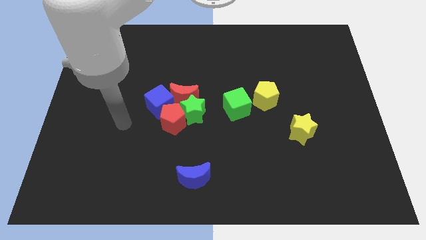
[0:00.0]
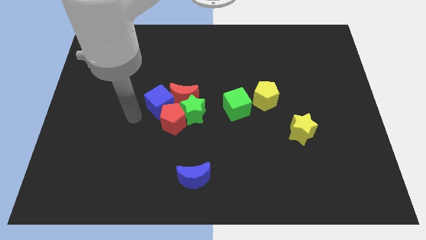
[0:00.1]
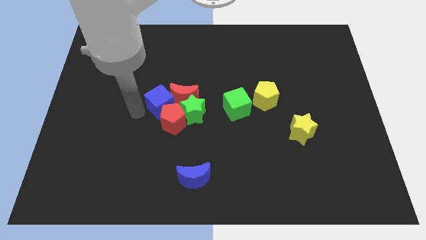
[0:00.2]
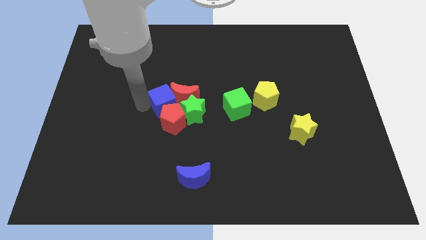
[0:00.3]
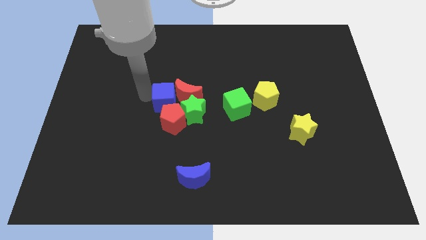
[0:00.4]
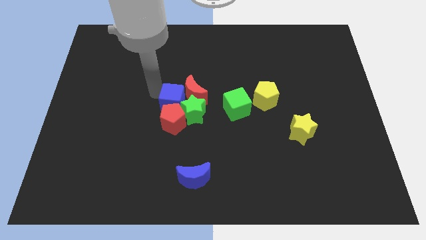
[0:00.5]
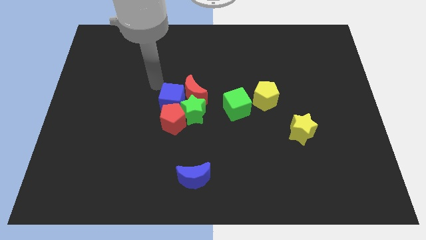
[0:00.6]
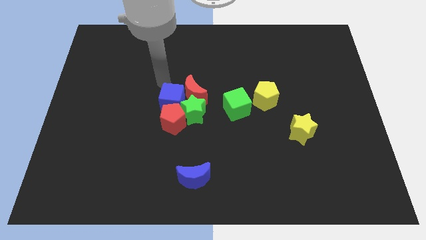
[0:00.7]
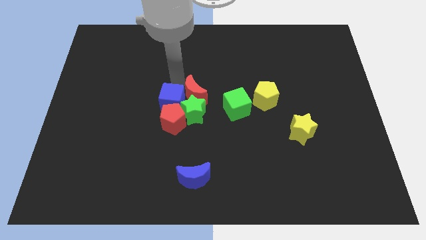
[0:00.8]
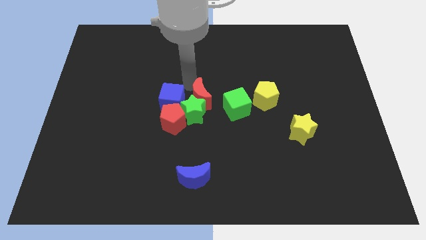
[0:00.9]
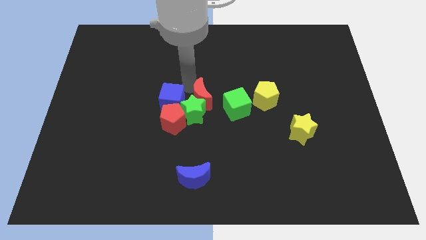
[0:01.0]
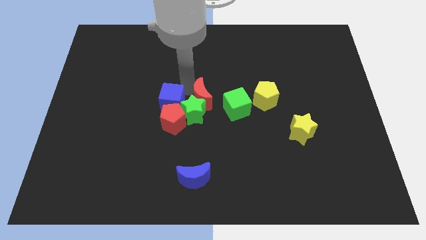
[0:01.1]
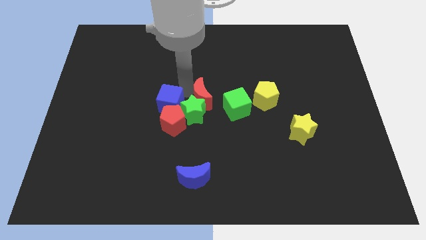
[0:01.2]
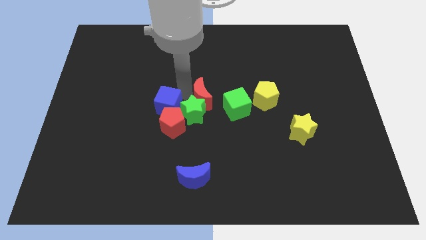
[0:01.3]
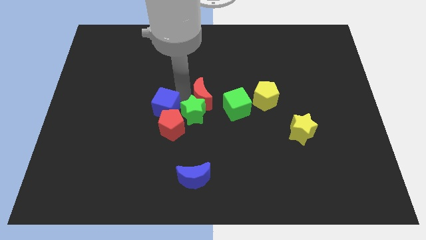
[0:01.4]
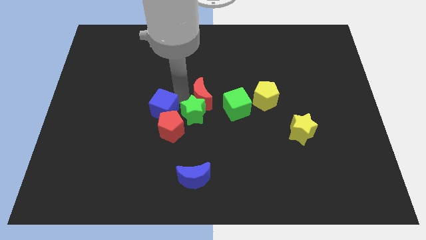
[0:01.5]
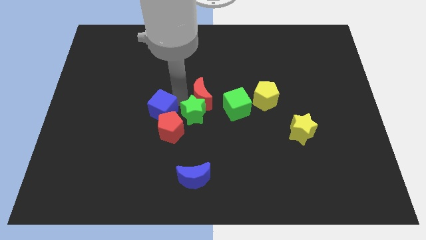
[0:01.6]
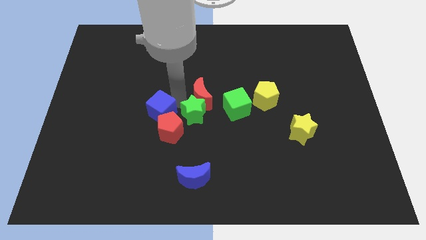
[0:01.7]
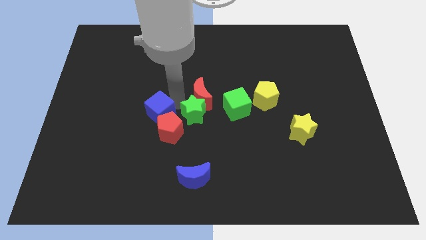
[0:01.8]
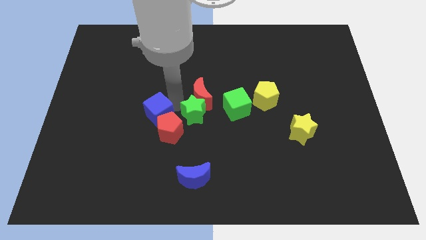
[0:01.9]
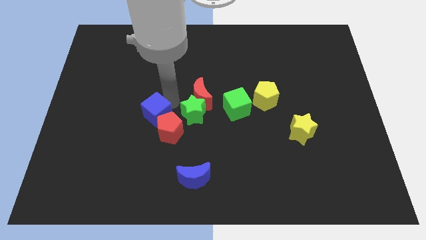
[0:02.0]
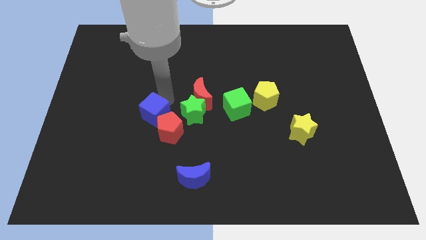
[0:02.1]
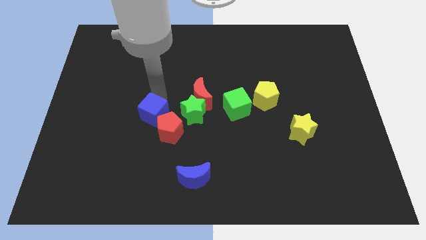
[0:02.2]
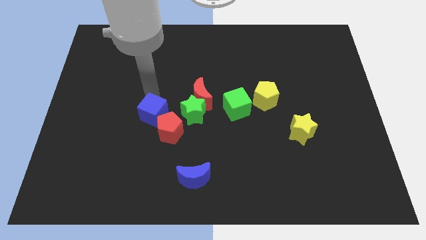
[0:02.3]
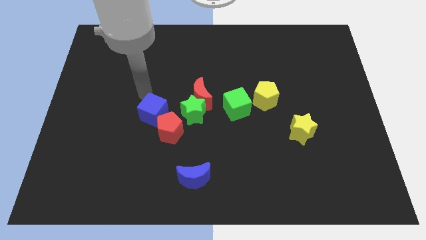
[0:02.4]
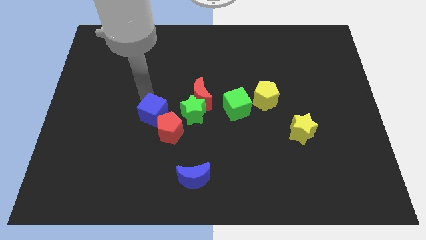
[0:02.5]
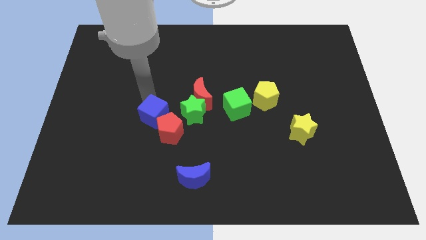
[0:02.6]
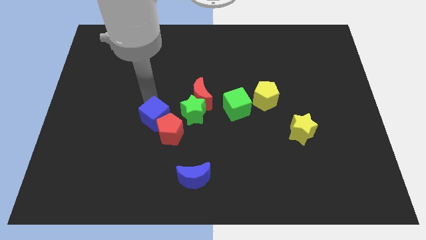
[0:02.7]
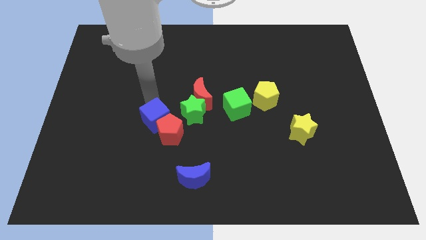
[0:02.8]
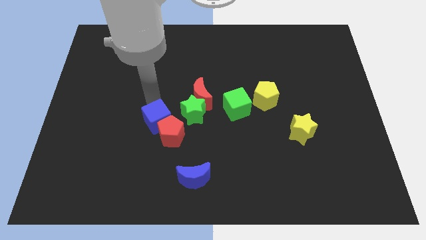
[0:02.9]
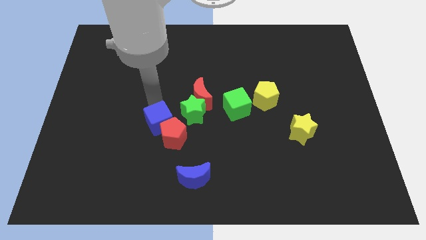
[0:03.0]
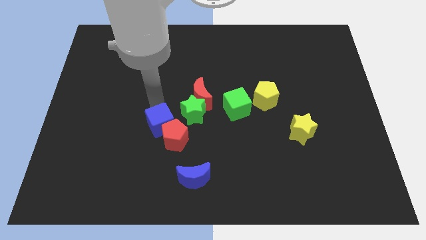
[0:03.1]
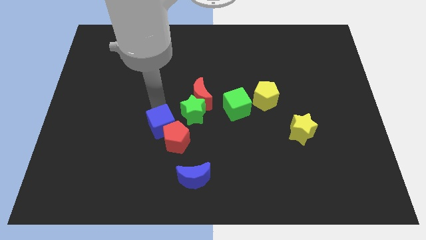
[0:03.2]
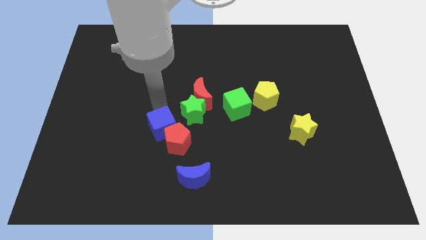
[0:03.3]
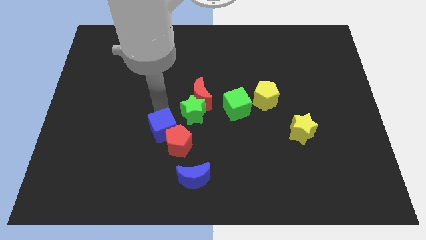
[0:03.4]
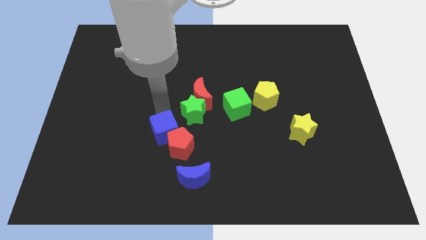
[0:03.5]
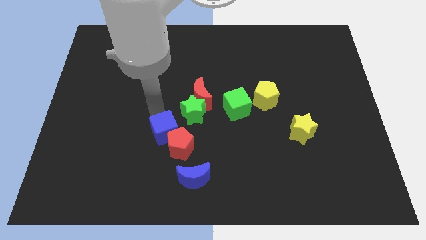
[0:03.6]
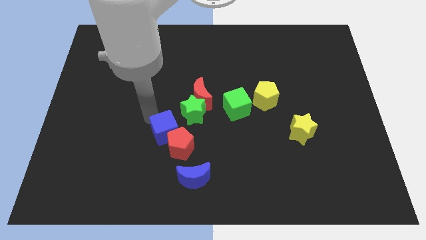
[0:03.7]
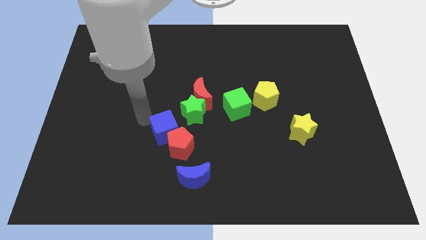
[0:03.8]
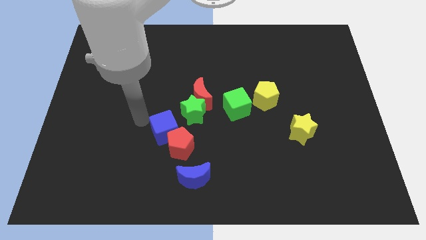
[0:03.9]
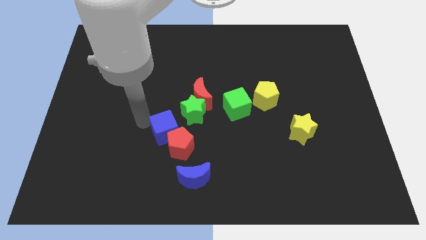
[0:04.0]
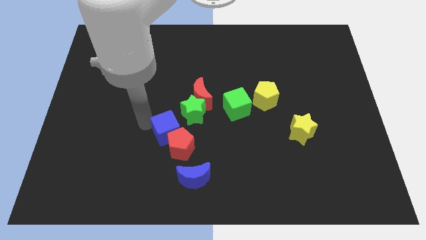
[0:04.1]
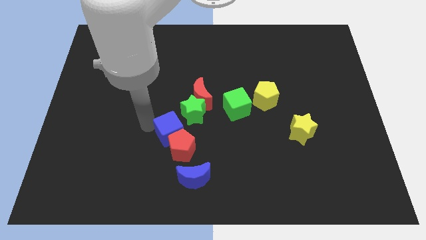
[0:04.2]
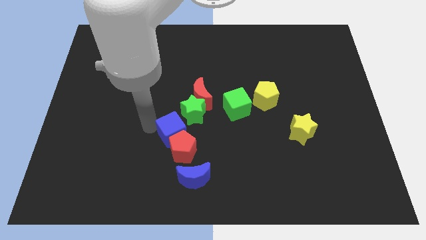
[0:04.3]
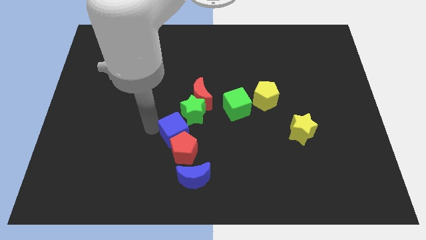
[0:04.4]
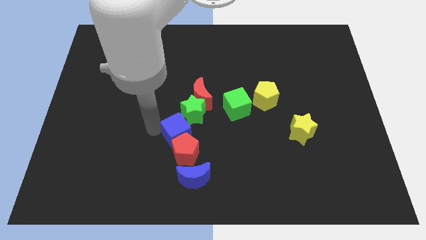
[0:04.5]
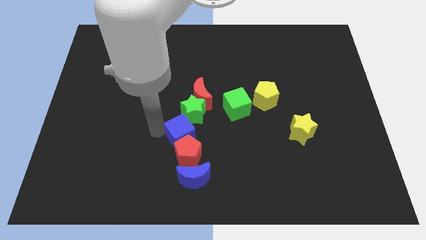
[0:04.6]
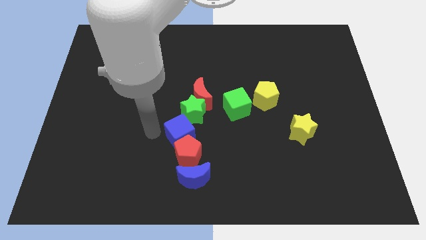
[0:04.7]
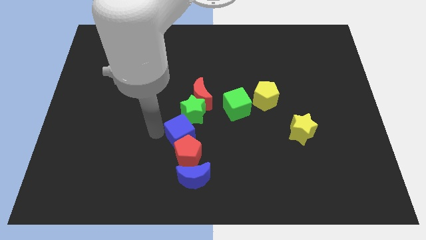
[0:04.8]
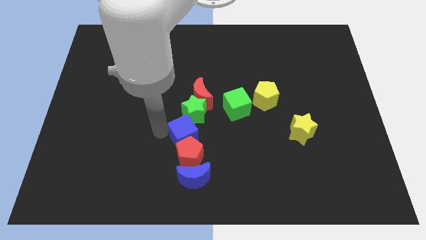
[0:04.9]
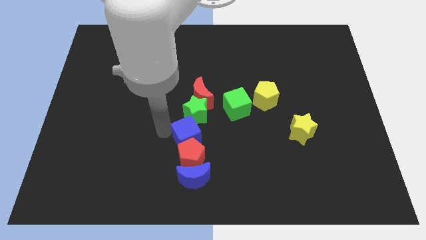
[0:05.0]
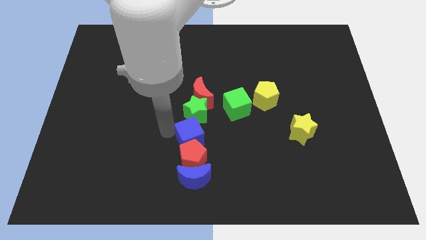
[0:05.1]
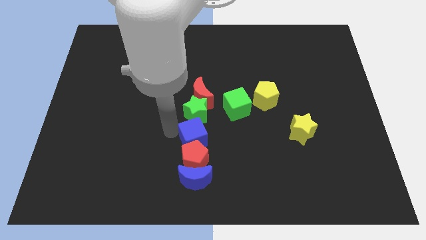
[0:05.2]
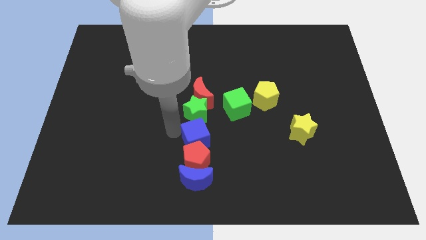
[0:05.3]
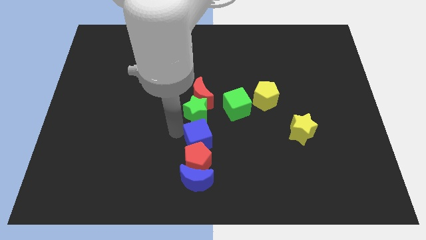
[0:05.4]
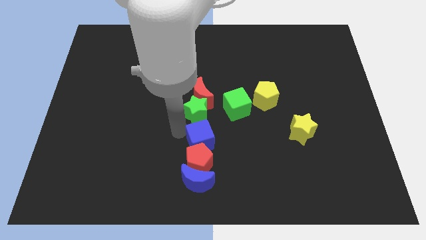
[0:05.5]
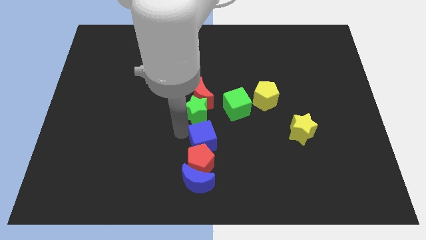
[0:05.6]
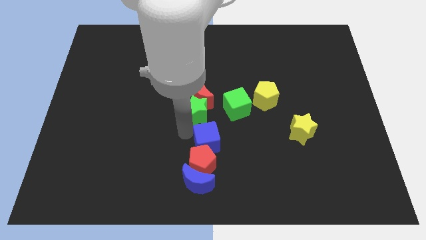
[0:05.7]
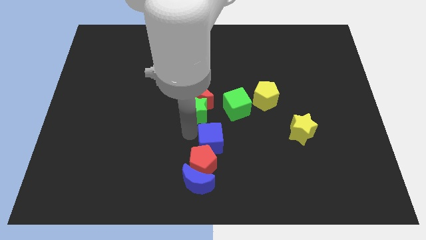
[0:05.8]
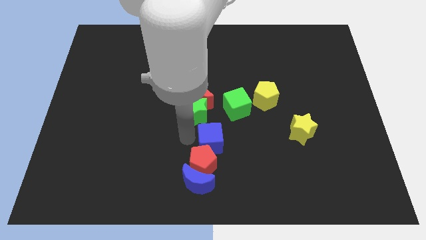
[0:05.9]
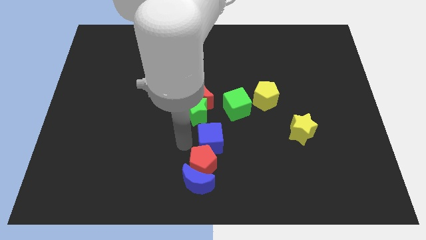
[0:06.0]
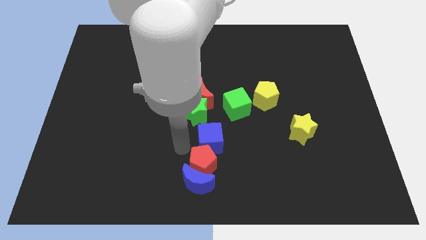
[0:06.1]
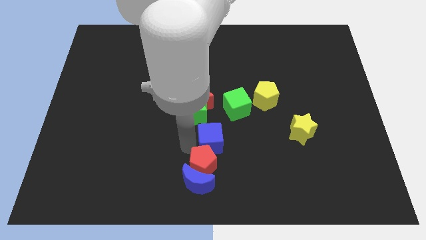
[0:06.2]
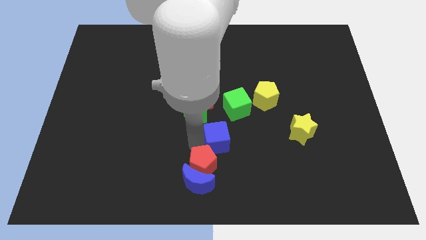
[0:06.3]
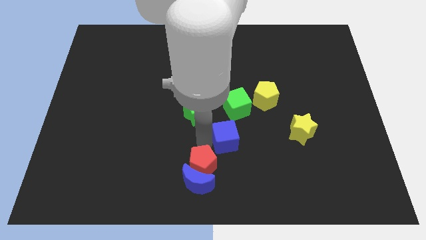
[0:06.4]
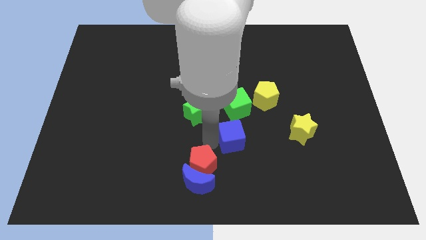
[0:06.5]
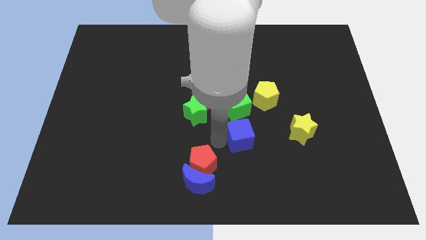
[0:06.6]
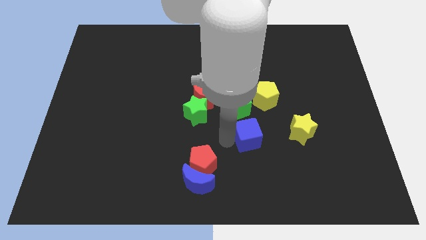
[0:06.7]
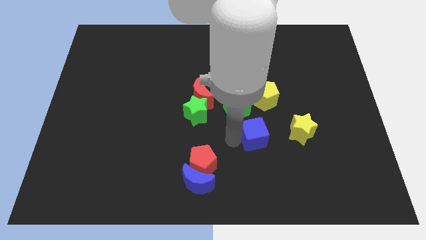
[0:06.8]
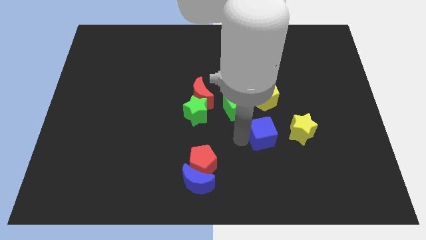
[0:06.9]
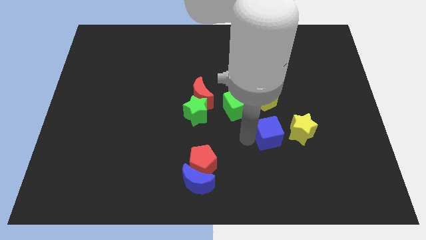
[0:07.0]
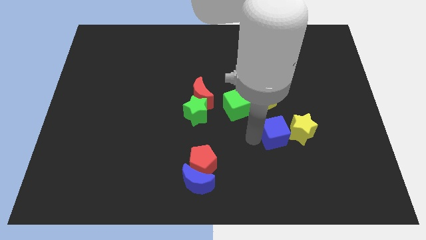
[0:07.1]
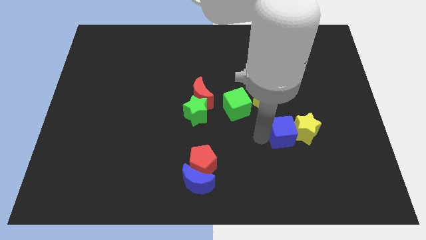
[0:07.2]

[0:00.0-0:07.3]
slide the blue cube close to the yellow star

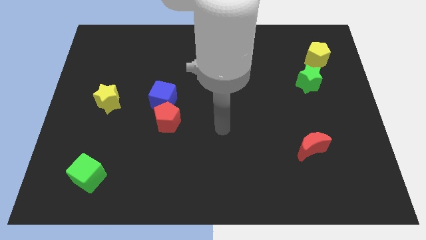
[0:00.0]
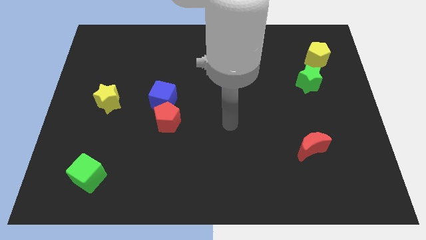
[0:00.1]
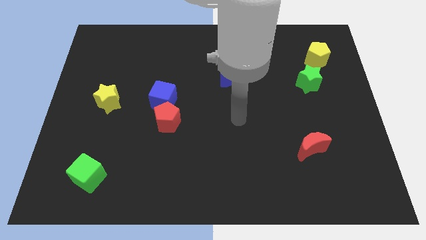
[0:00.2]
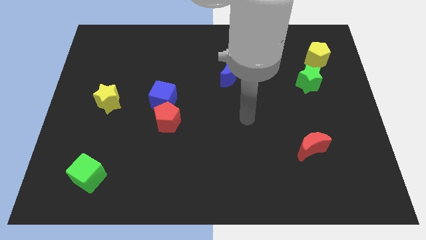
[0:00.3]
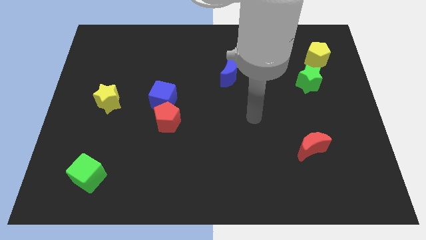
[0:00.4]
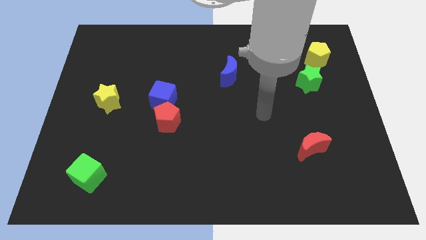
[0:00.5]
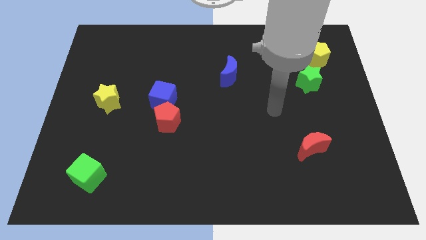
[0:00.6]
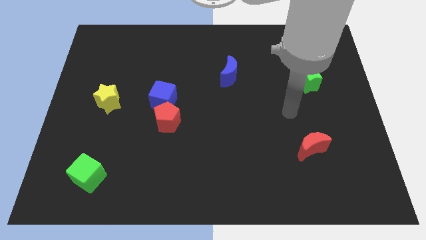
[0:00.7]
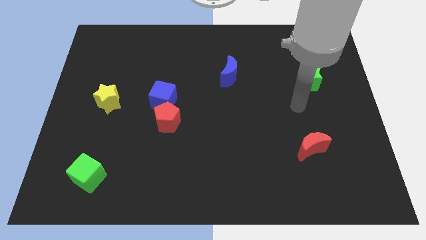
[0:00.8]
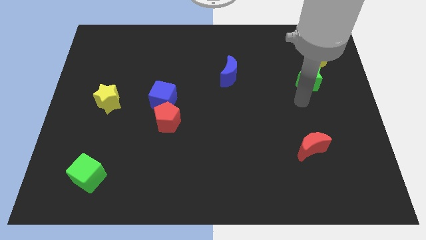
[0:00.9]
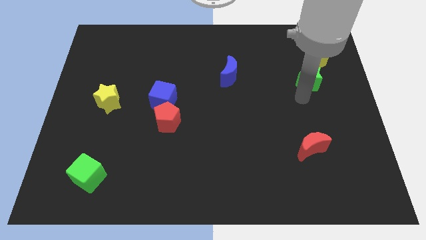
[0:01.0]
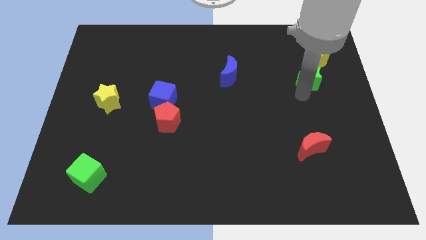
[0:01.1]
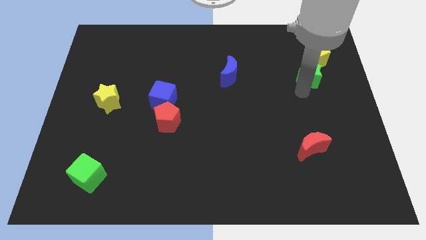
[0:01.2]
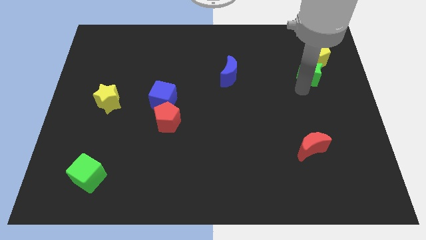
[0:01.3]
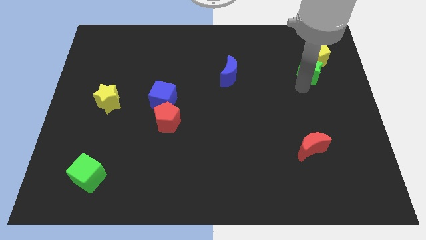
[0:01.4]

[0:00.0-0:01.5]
move the green star next to the yellow pentagon
